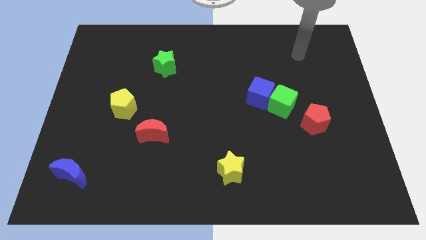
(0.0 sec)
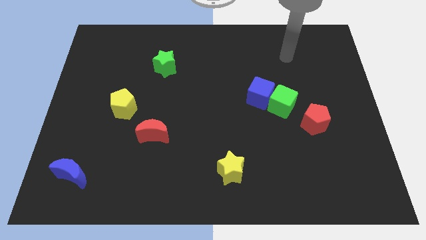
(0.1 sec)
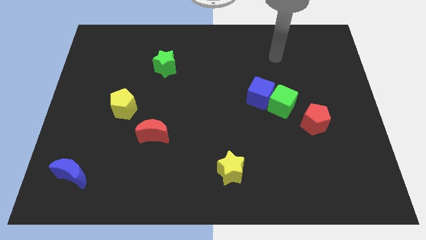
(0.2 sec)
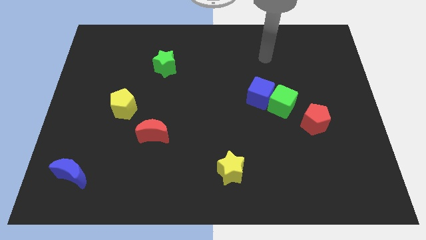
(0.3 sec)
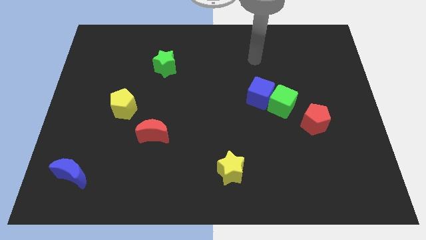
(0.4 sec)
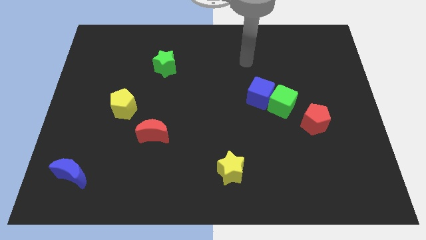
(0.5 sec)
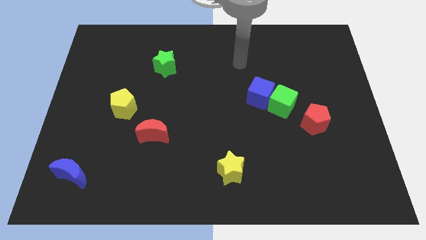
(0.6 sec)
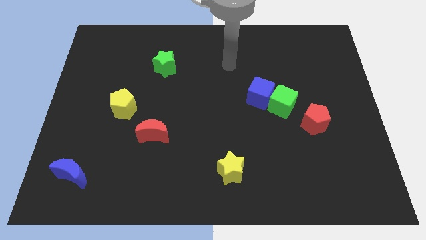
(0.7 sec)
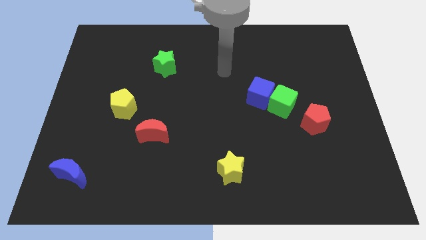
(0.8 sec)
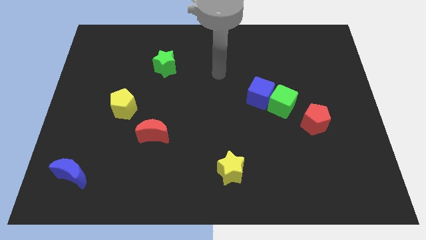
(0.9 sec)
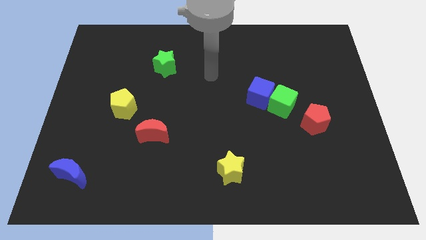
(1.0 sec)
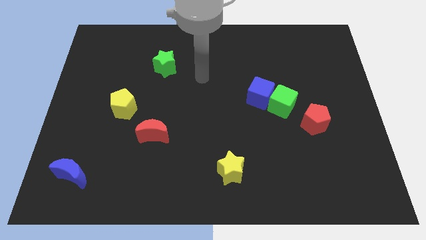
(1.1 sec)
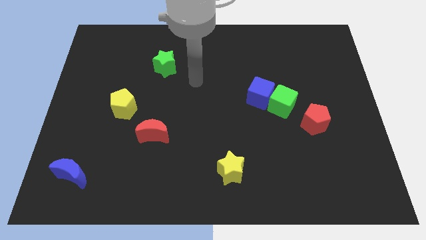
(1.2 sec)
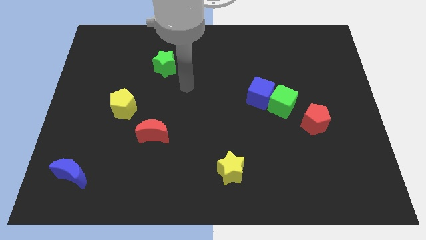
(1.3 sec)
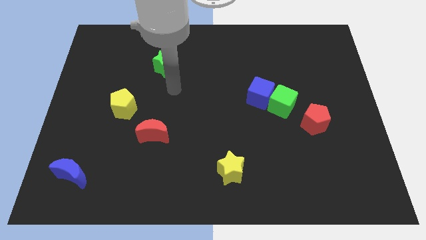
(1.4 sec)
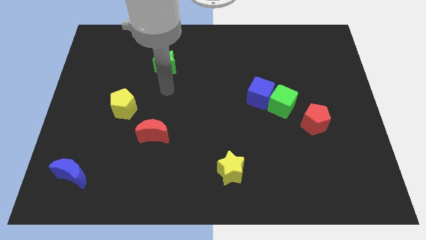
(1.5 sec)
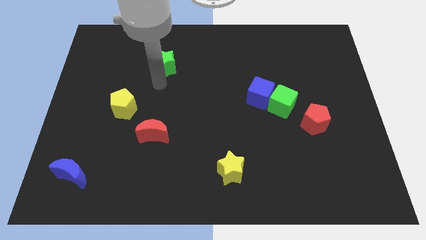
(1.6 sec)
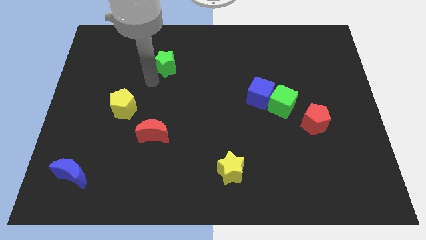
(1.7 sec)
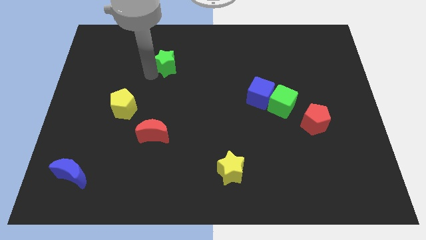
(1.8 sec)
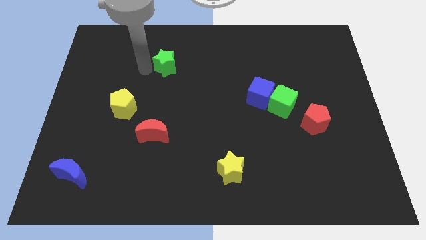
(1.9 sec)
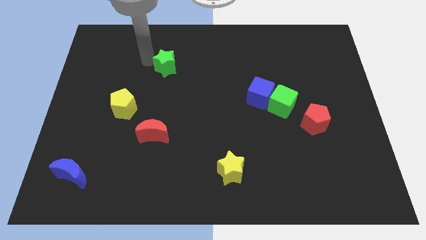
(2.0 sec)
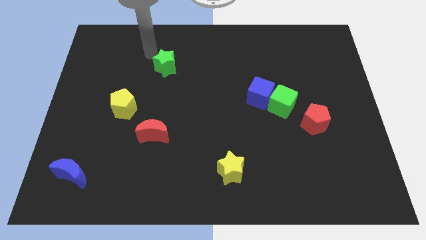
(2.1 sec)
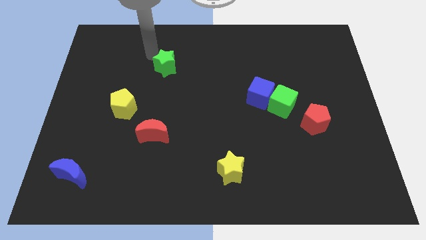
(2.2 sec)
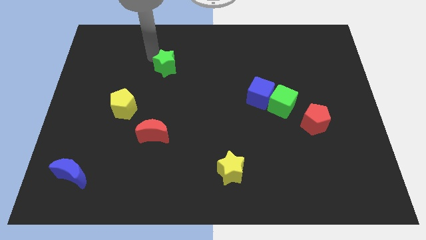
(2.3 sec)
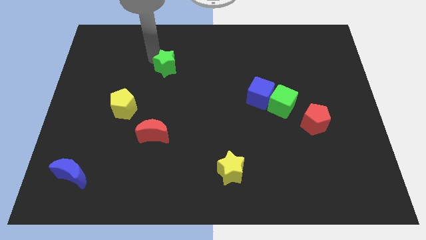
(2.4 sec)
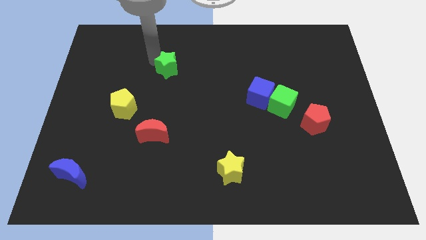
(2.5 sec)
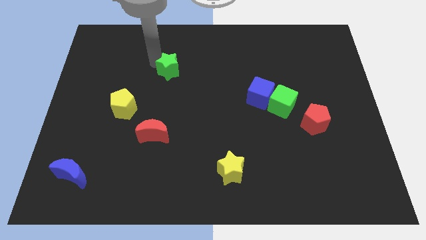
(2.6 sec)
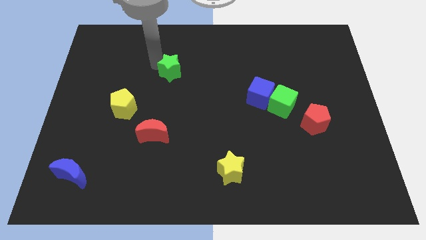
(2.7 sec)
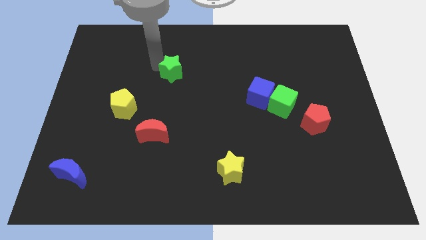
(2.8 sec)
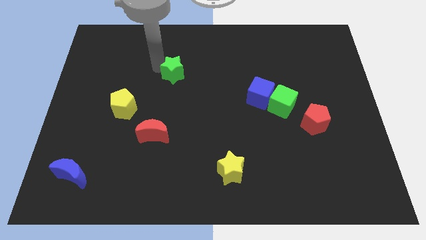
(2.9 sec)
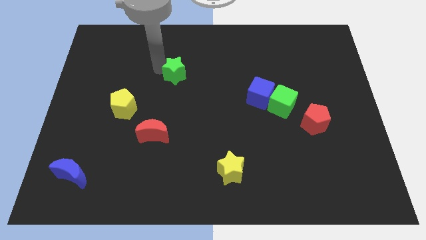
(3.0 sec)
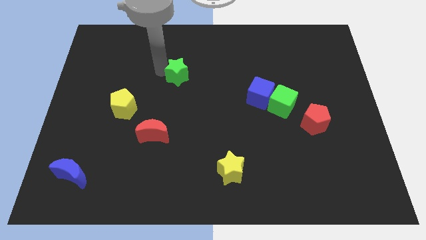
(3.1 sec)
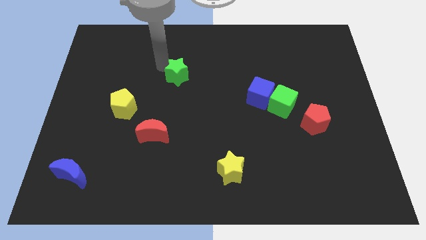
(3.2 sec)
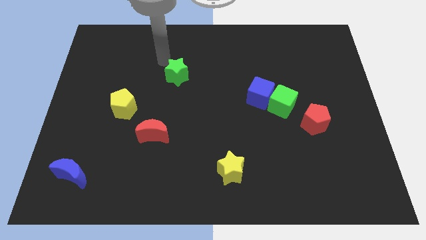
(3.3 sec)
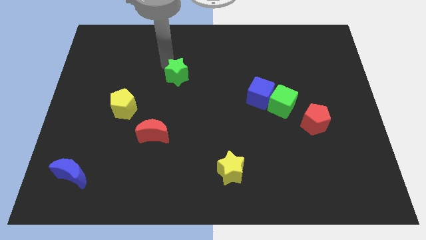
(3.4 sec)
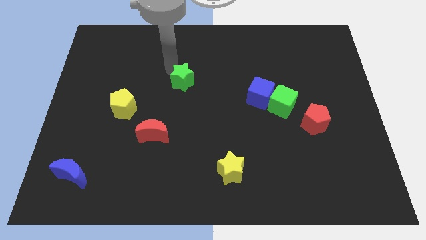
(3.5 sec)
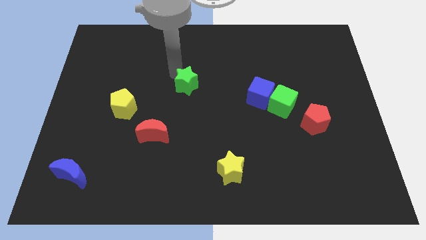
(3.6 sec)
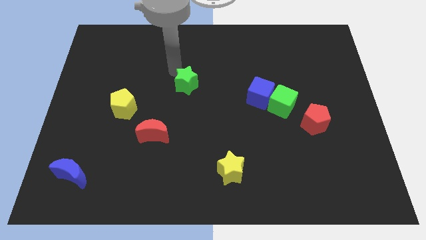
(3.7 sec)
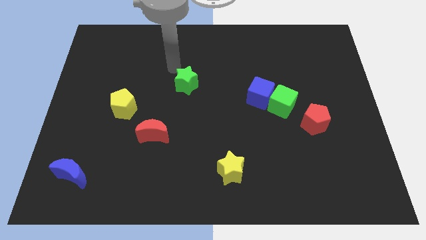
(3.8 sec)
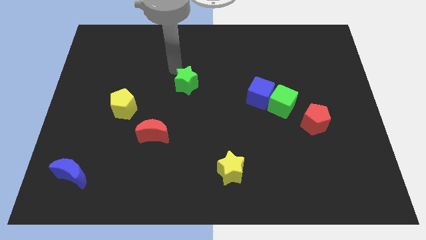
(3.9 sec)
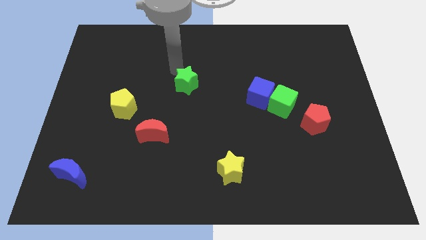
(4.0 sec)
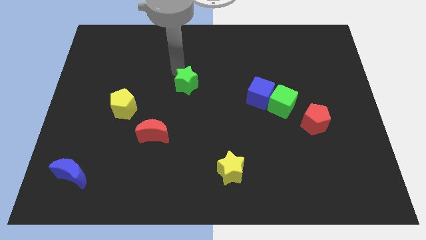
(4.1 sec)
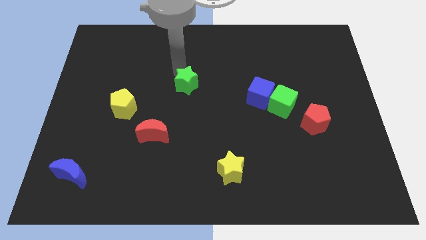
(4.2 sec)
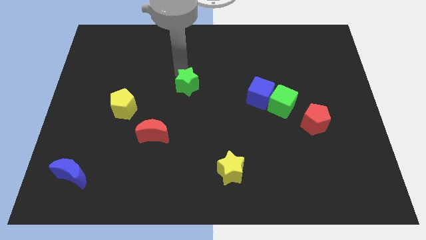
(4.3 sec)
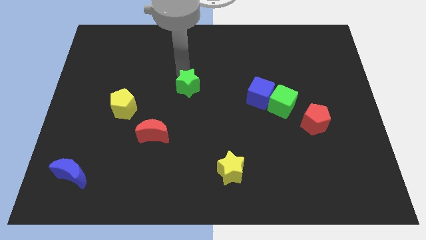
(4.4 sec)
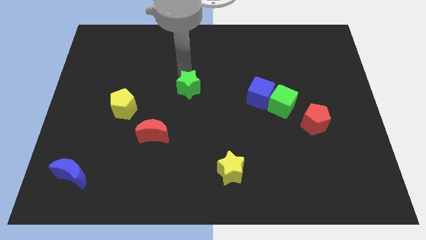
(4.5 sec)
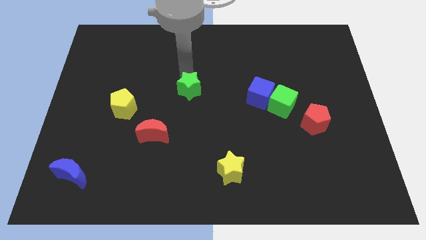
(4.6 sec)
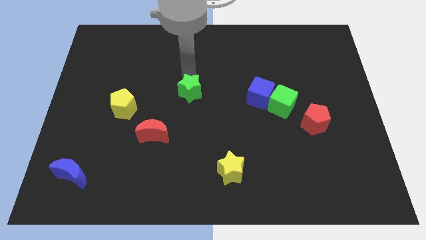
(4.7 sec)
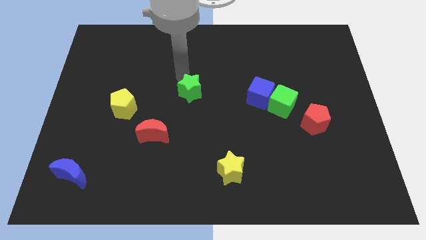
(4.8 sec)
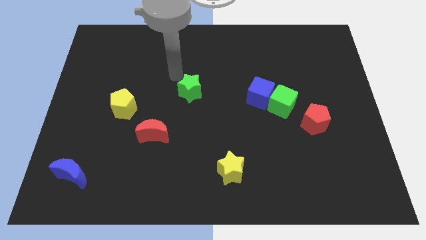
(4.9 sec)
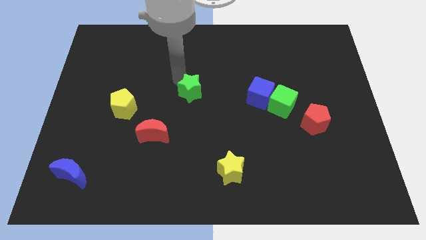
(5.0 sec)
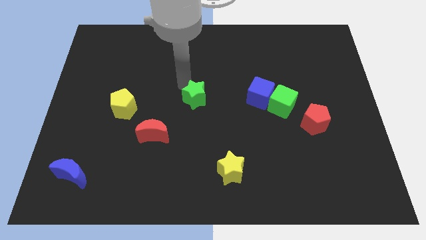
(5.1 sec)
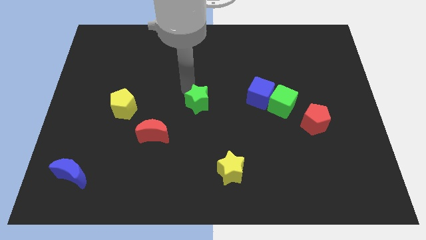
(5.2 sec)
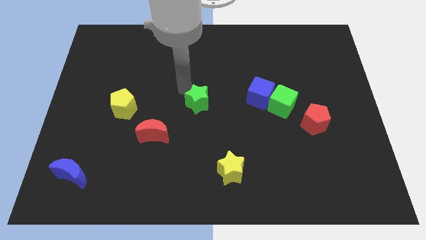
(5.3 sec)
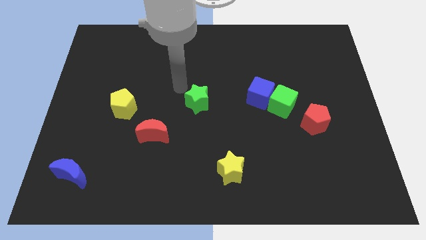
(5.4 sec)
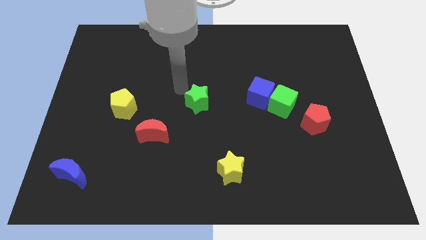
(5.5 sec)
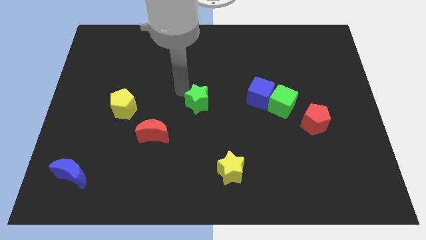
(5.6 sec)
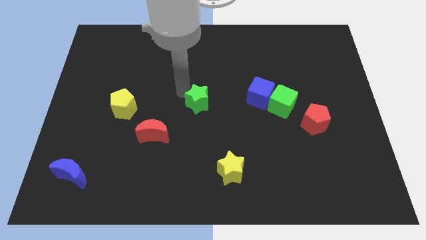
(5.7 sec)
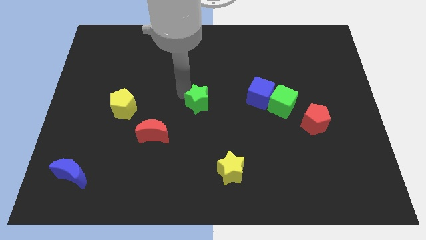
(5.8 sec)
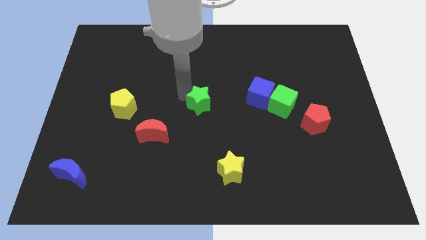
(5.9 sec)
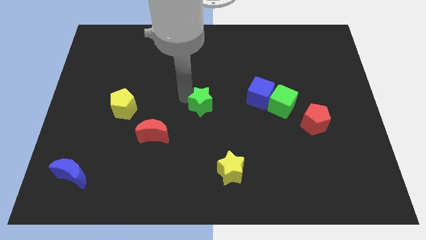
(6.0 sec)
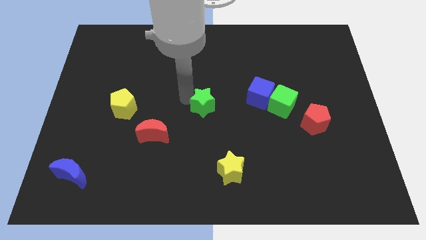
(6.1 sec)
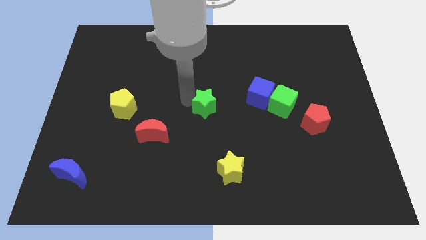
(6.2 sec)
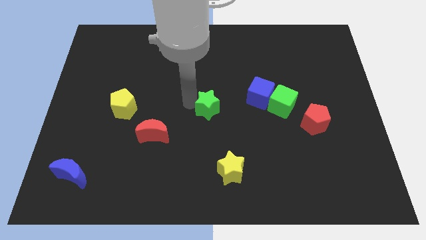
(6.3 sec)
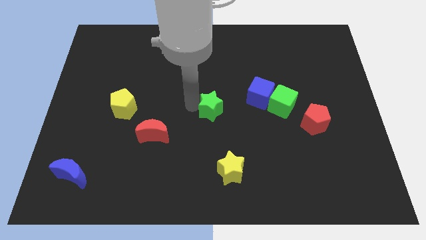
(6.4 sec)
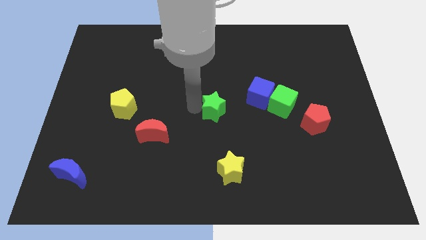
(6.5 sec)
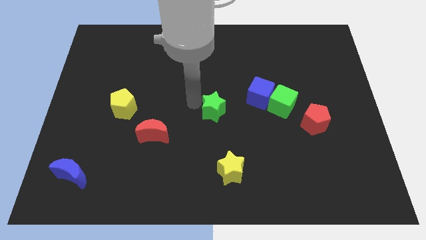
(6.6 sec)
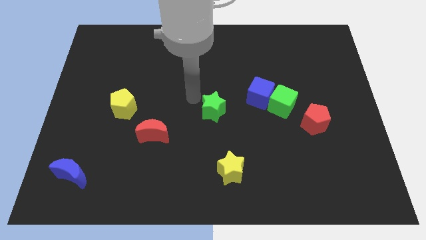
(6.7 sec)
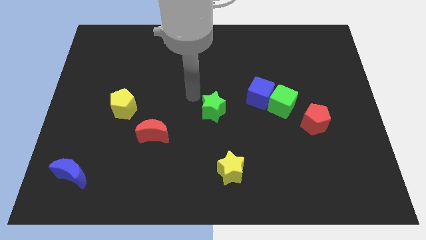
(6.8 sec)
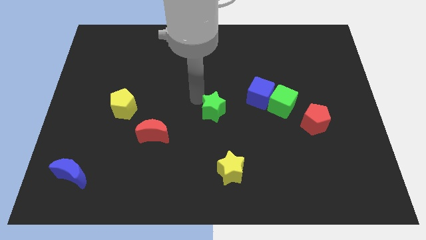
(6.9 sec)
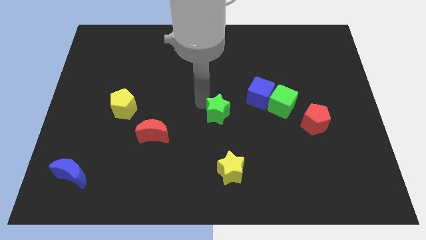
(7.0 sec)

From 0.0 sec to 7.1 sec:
slide the green star down and to the right diagonally

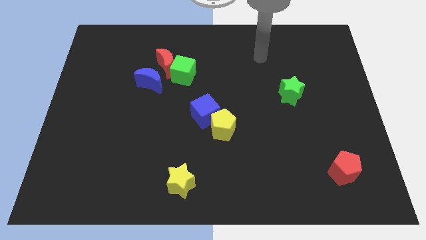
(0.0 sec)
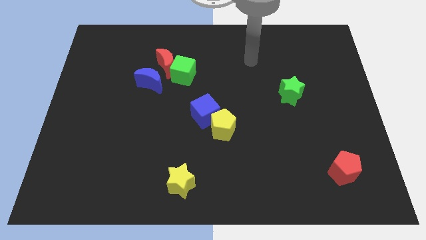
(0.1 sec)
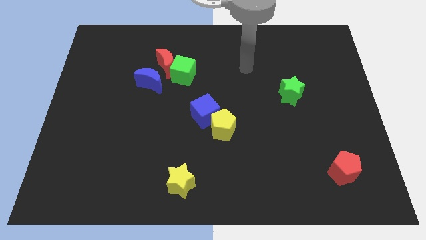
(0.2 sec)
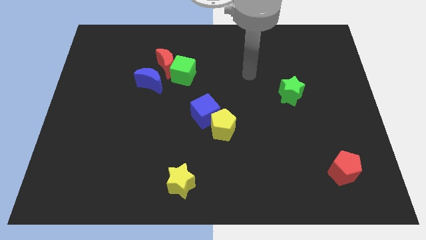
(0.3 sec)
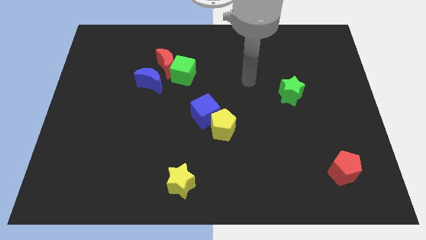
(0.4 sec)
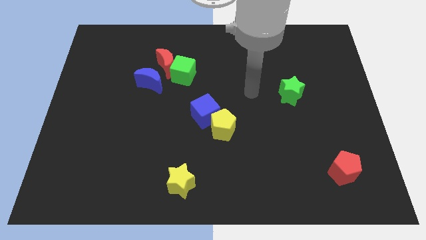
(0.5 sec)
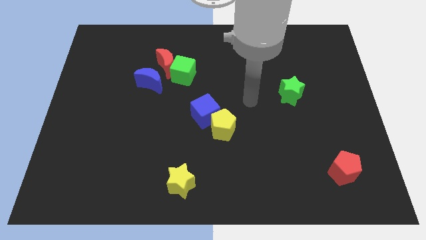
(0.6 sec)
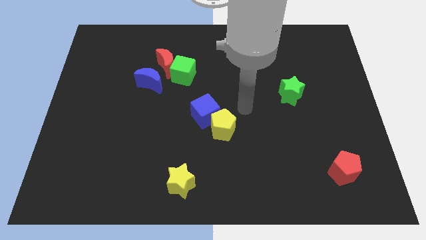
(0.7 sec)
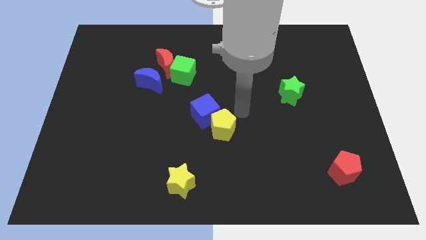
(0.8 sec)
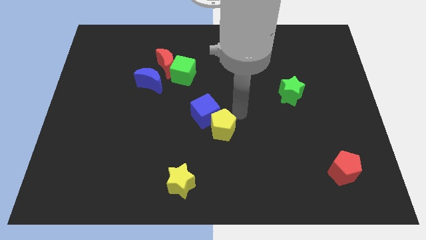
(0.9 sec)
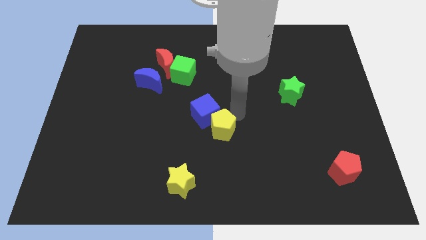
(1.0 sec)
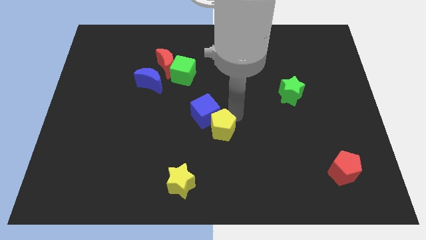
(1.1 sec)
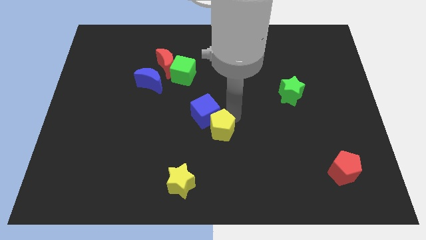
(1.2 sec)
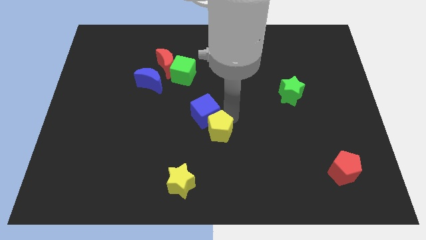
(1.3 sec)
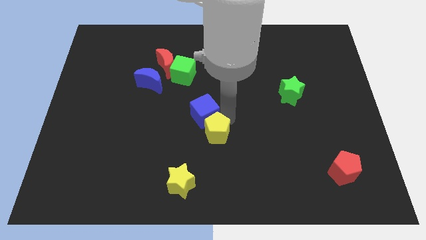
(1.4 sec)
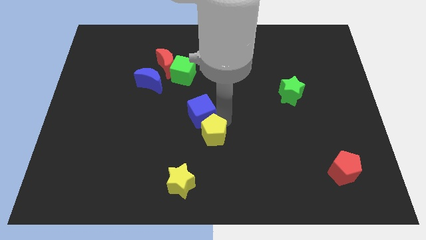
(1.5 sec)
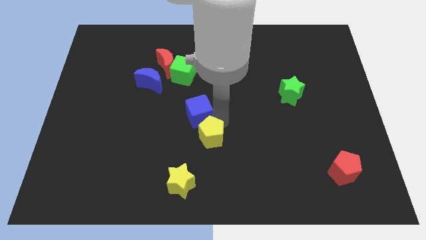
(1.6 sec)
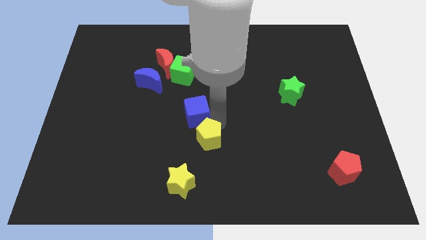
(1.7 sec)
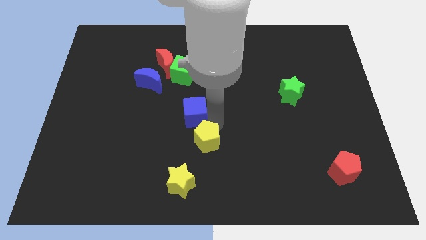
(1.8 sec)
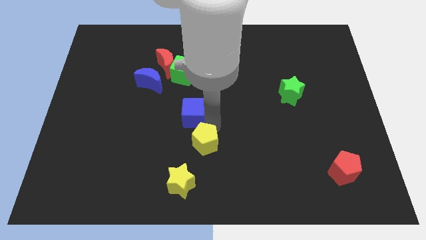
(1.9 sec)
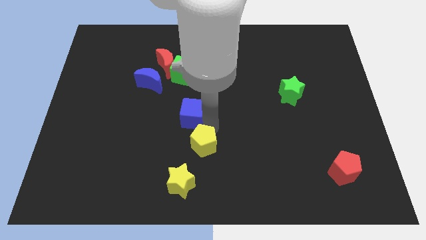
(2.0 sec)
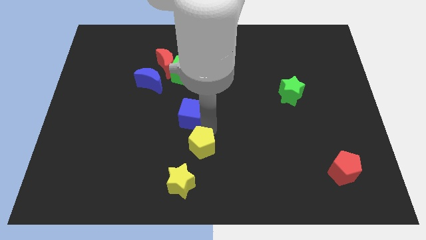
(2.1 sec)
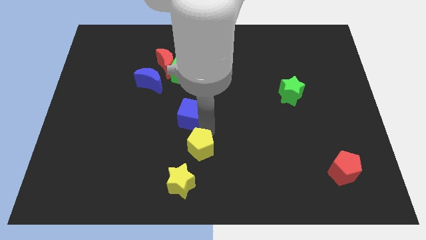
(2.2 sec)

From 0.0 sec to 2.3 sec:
slide the yellow pentagon diagonally down and left a bit
